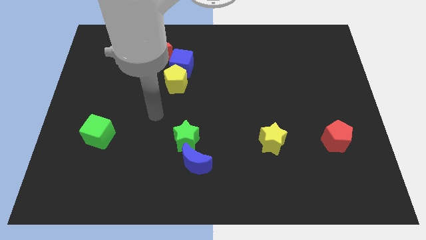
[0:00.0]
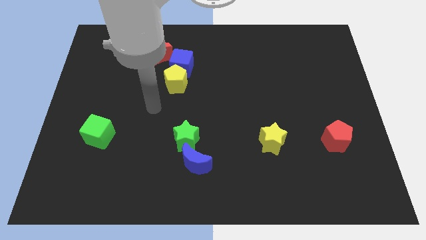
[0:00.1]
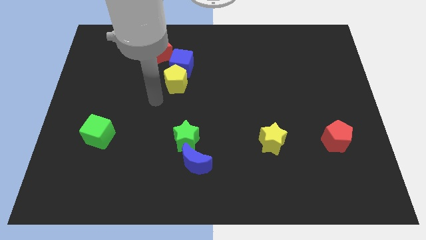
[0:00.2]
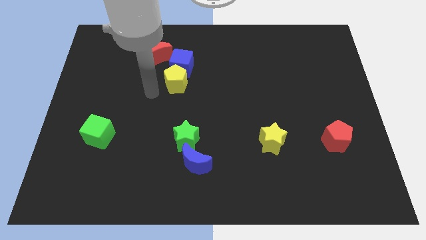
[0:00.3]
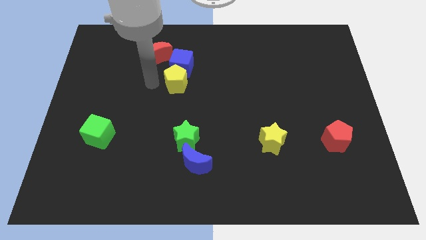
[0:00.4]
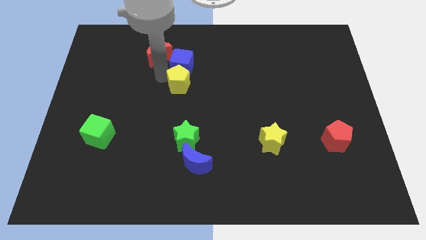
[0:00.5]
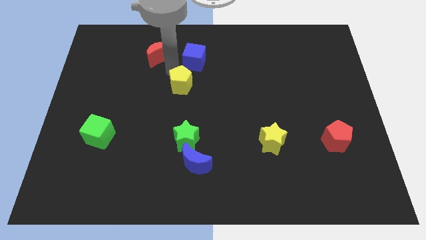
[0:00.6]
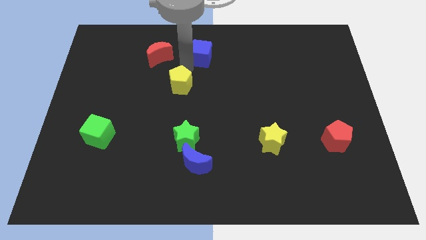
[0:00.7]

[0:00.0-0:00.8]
pull the yellow pentagon apart from the blue cube

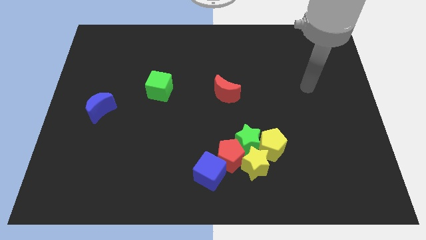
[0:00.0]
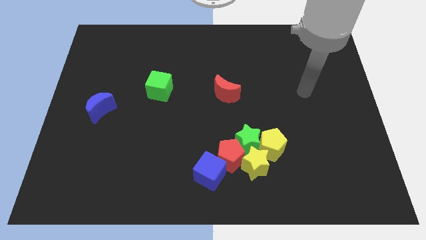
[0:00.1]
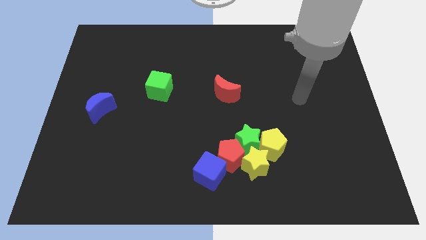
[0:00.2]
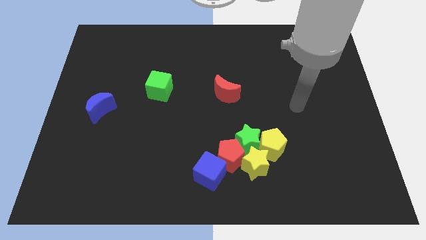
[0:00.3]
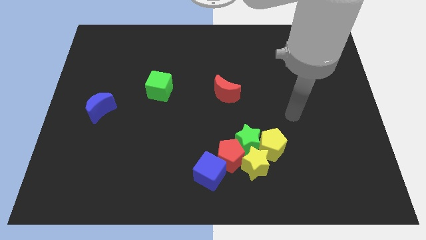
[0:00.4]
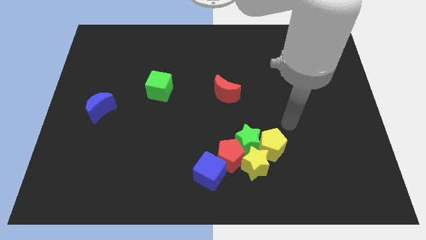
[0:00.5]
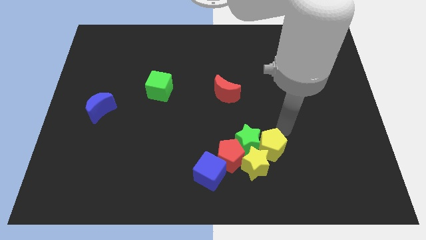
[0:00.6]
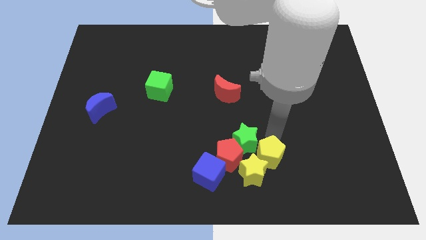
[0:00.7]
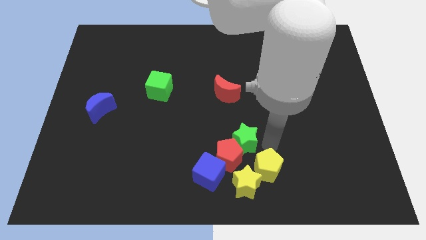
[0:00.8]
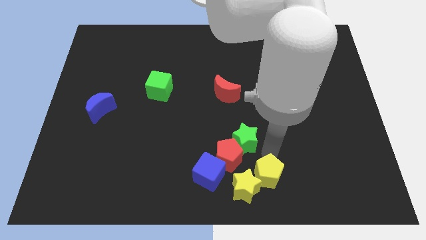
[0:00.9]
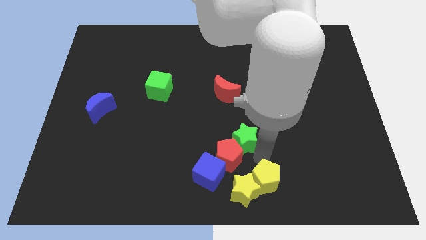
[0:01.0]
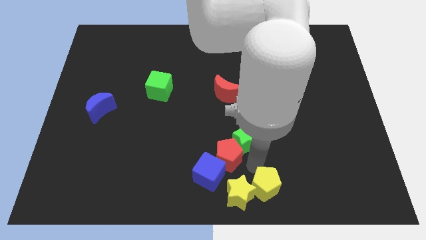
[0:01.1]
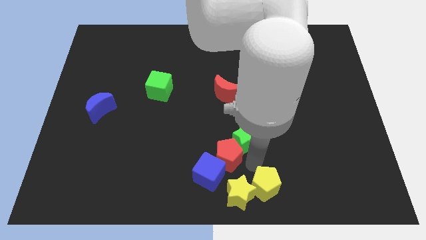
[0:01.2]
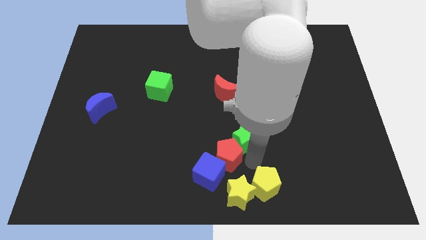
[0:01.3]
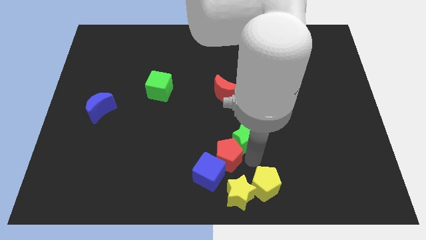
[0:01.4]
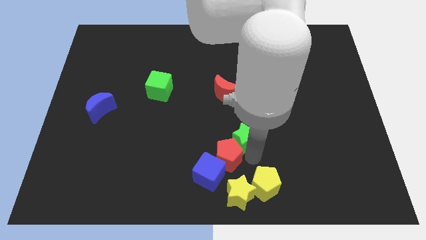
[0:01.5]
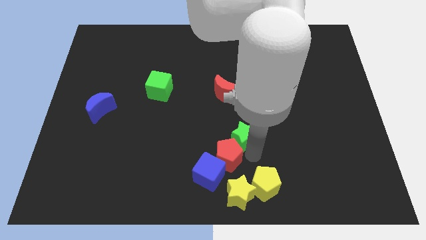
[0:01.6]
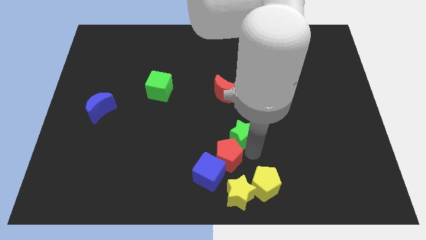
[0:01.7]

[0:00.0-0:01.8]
move the green star away from the red pentagon, yellow pentagon, and yellow star

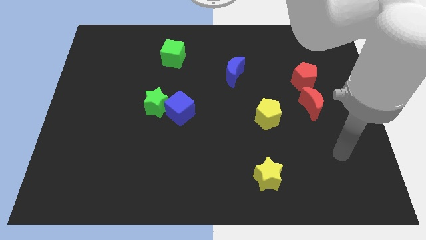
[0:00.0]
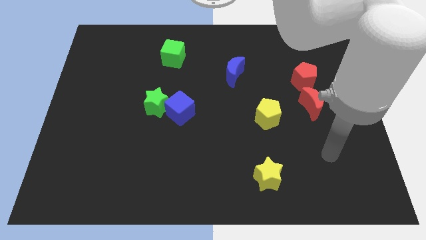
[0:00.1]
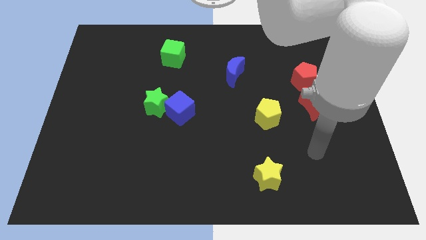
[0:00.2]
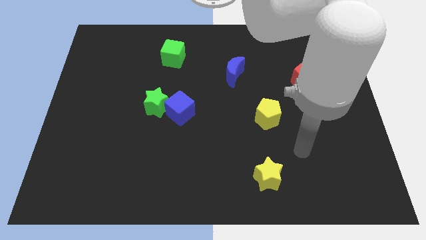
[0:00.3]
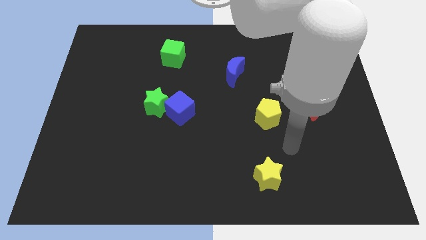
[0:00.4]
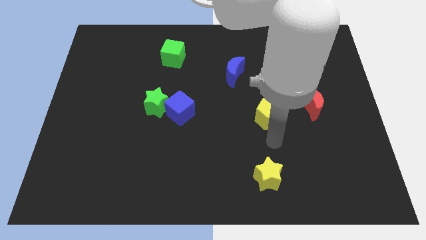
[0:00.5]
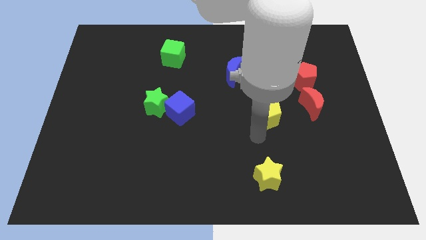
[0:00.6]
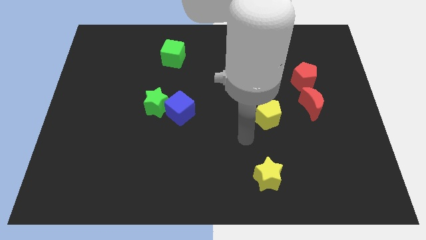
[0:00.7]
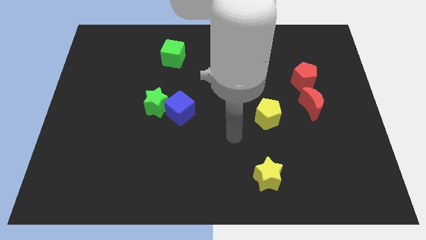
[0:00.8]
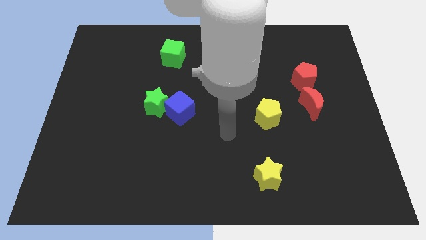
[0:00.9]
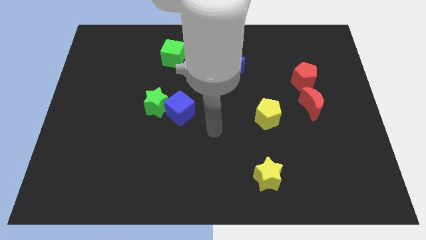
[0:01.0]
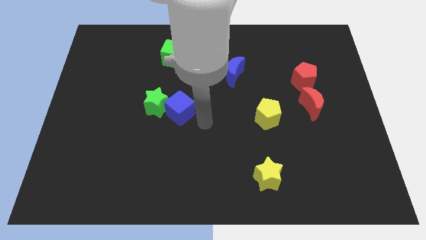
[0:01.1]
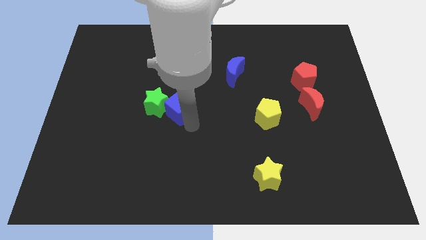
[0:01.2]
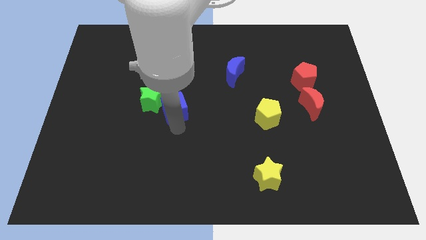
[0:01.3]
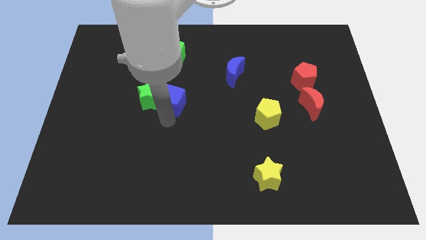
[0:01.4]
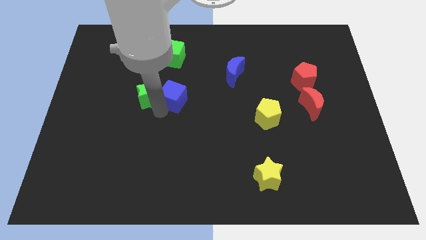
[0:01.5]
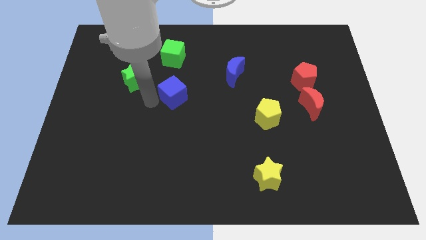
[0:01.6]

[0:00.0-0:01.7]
move the blue cube away from the green star

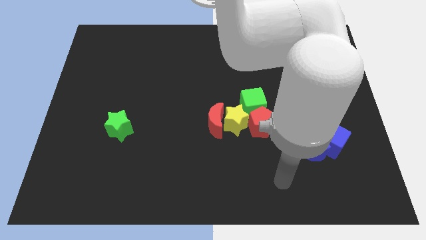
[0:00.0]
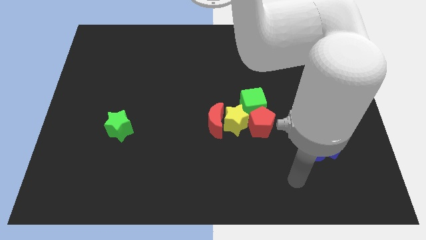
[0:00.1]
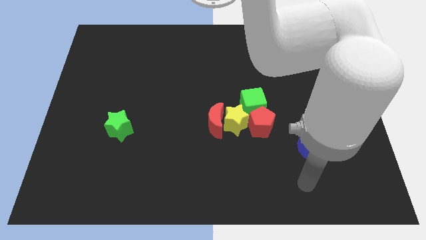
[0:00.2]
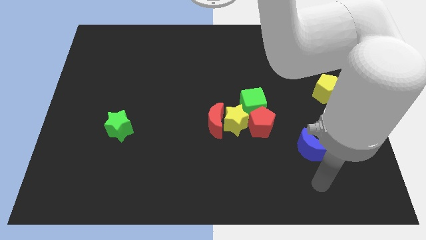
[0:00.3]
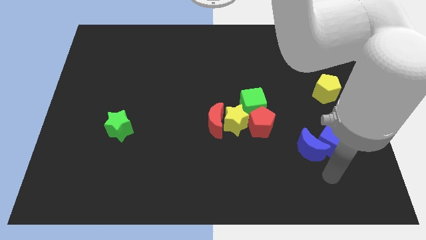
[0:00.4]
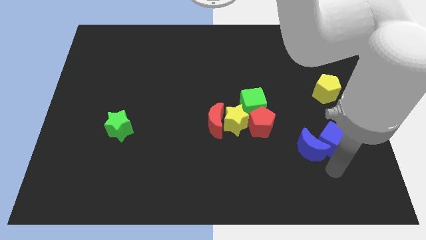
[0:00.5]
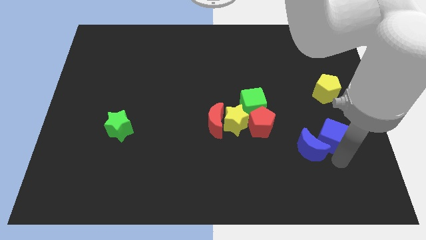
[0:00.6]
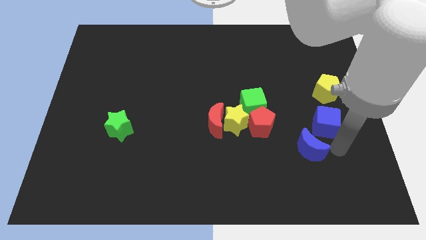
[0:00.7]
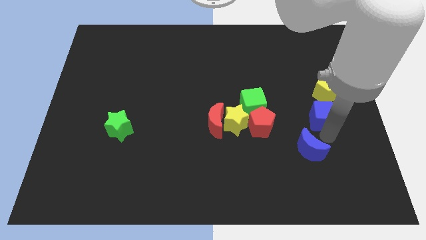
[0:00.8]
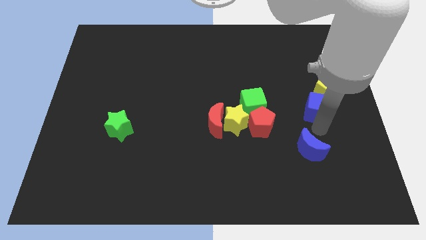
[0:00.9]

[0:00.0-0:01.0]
separate the blue moon from the blue cube

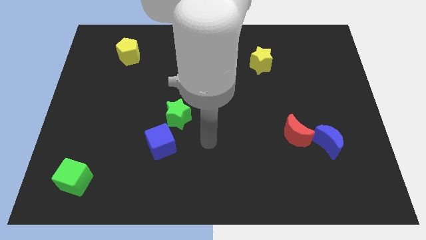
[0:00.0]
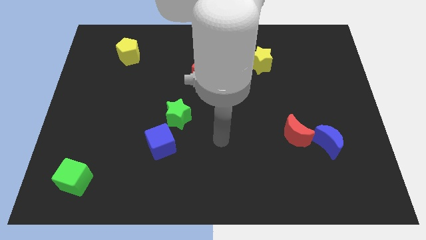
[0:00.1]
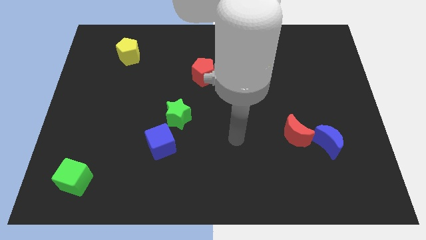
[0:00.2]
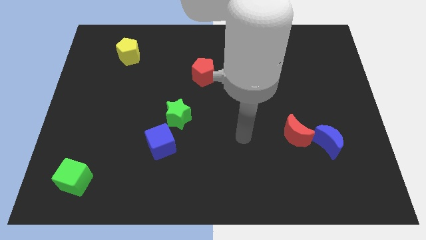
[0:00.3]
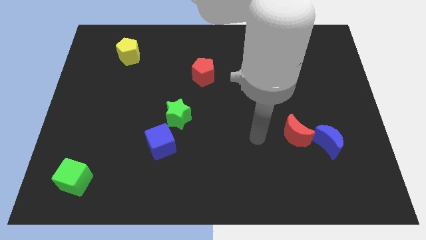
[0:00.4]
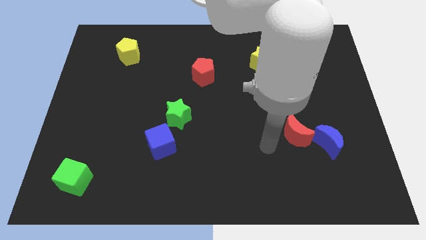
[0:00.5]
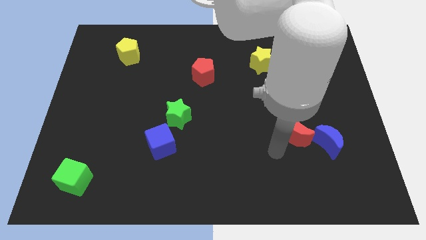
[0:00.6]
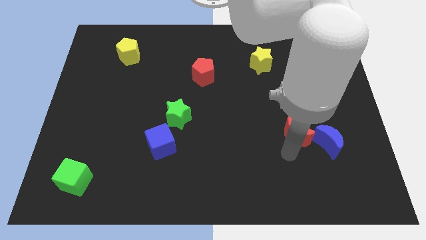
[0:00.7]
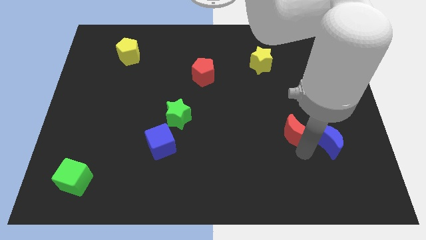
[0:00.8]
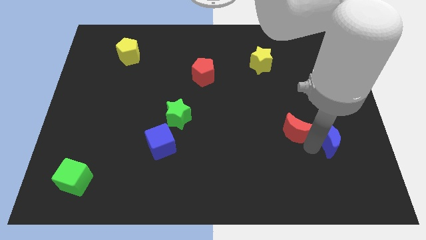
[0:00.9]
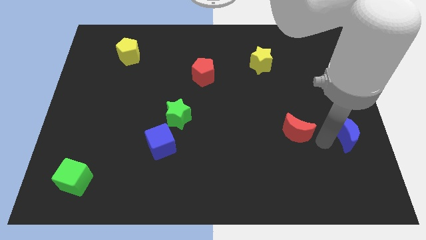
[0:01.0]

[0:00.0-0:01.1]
pull the red moon apart from the blue moon

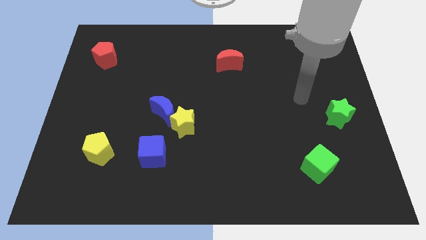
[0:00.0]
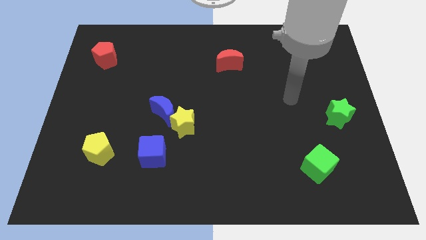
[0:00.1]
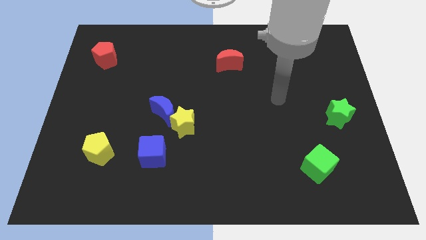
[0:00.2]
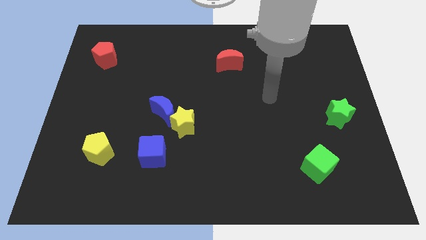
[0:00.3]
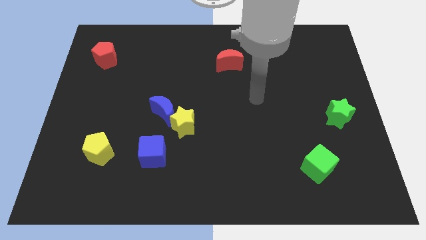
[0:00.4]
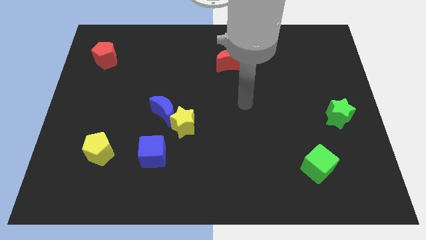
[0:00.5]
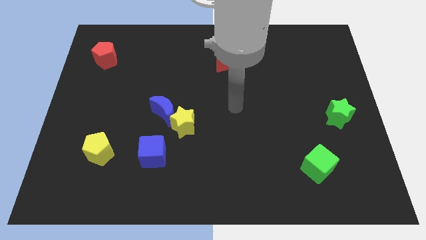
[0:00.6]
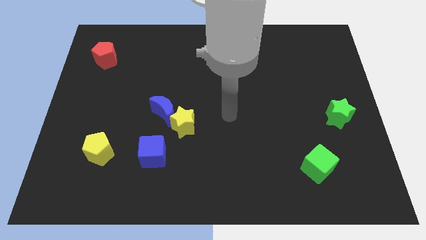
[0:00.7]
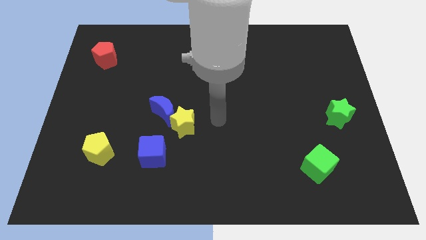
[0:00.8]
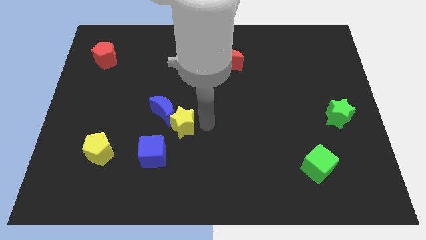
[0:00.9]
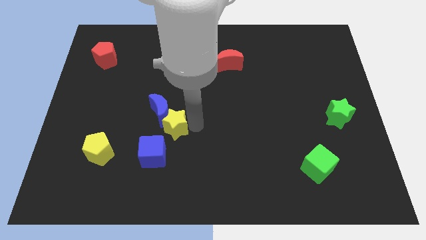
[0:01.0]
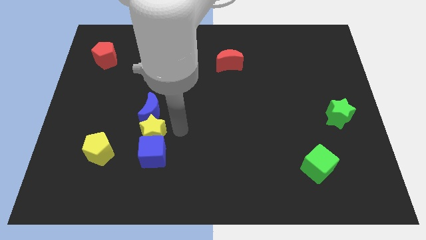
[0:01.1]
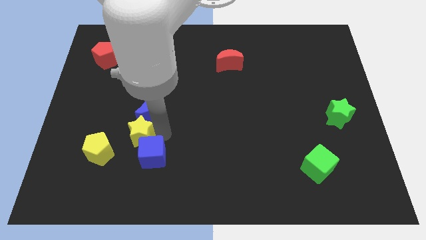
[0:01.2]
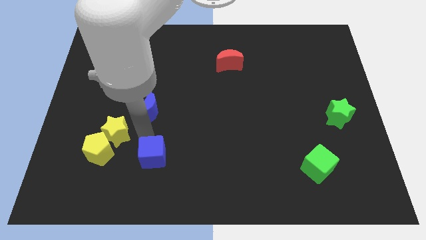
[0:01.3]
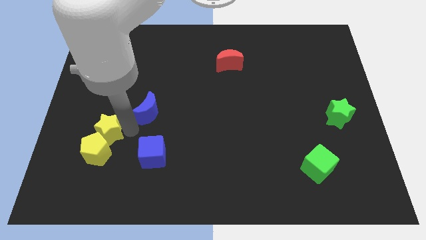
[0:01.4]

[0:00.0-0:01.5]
separate the blue moon from the yellow star

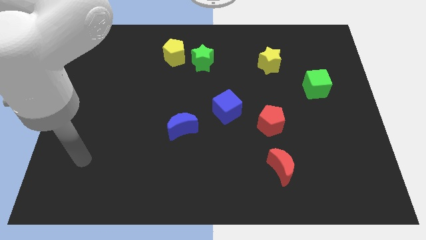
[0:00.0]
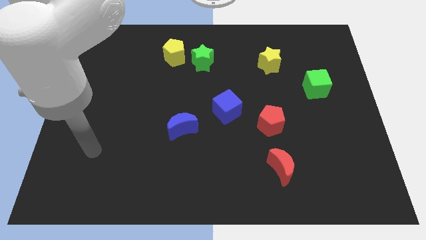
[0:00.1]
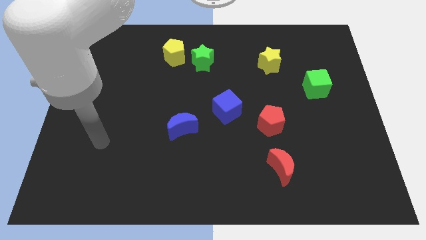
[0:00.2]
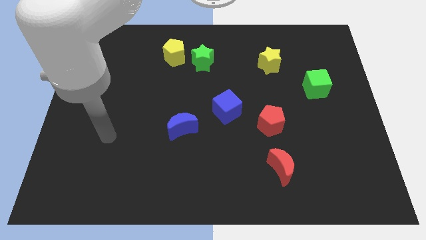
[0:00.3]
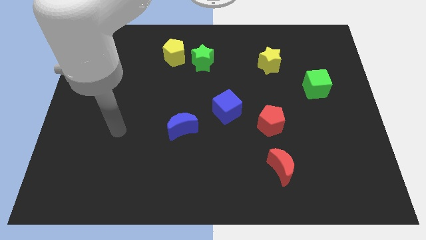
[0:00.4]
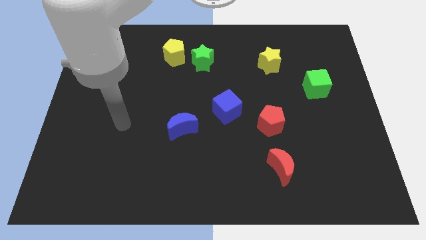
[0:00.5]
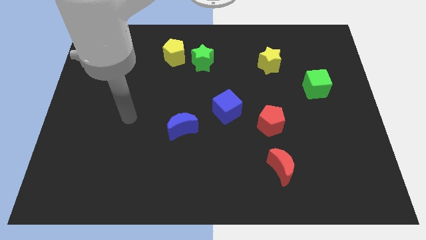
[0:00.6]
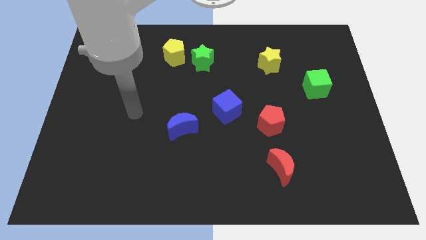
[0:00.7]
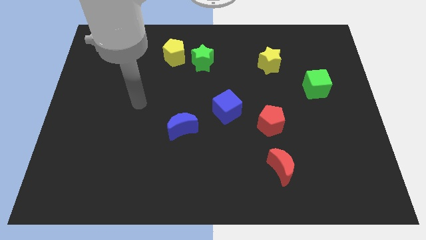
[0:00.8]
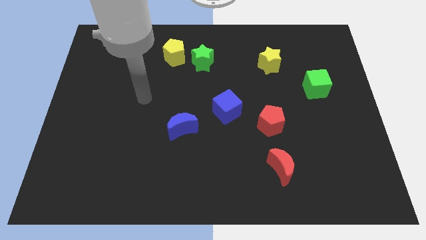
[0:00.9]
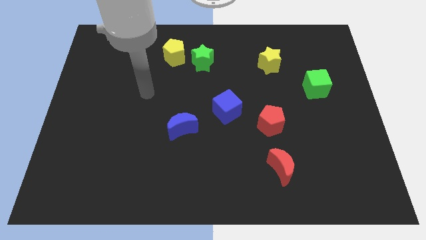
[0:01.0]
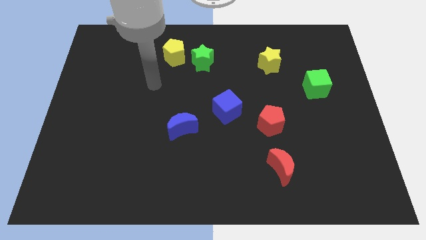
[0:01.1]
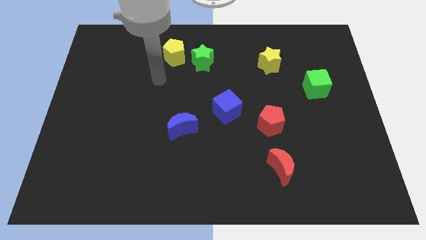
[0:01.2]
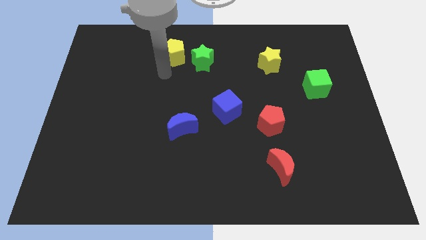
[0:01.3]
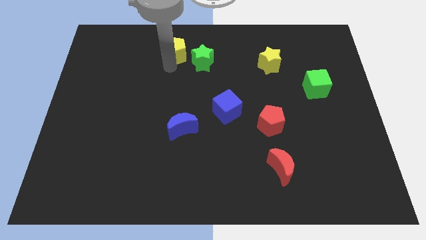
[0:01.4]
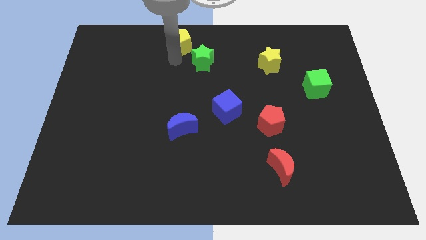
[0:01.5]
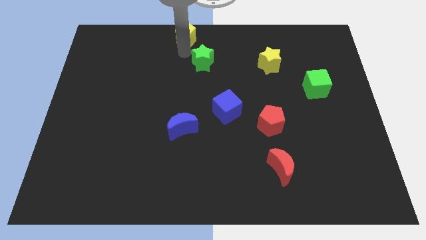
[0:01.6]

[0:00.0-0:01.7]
pull the green star apart from the yellow pentagon
